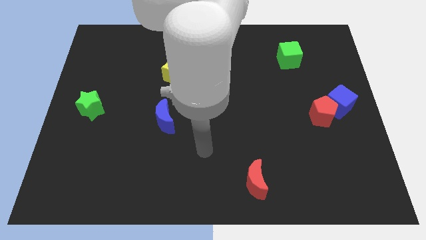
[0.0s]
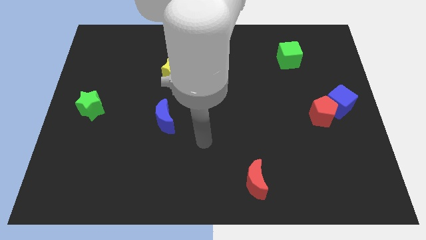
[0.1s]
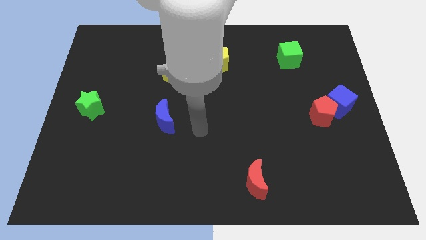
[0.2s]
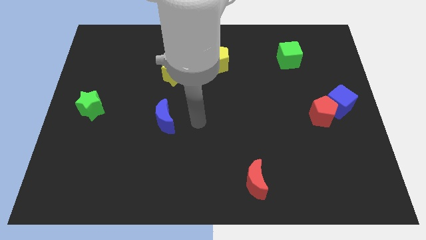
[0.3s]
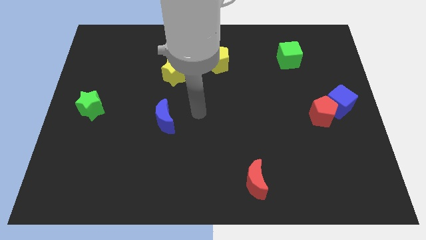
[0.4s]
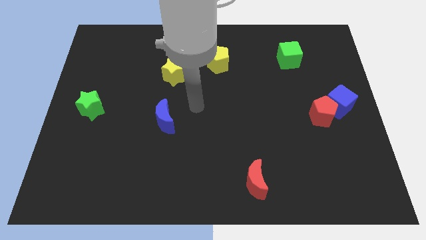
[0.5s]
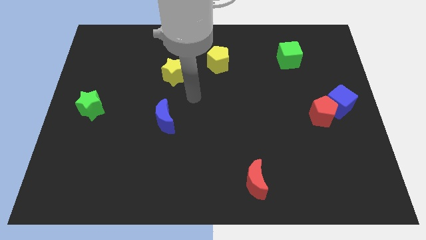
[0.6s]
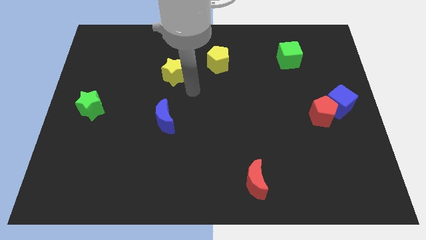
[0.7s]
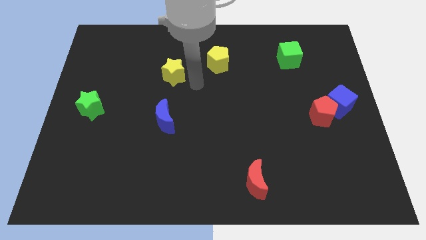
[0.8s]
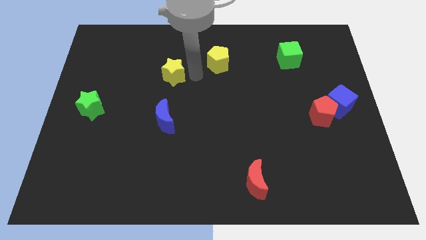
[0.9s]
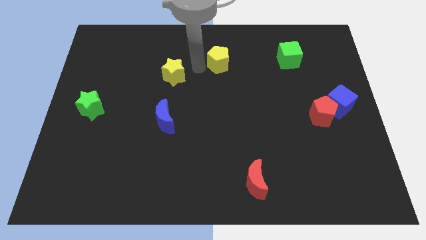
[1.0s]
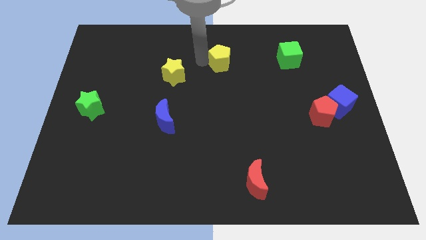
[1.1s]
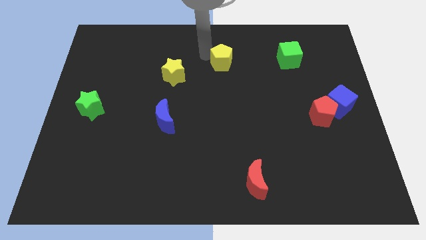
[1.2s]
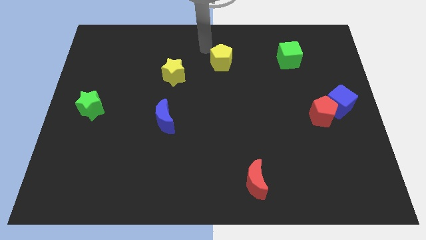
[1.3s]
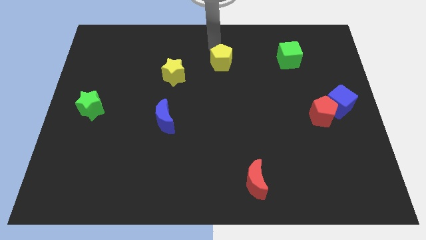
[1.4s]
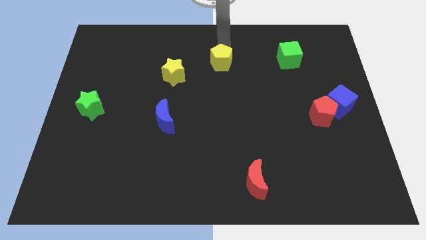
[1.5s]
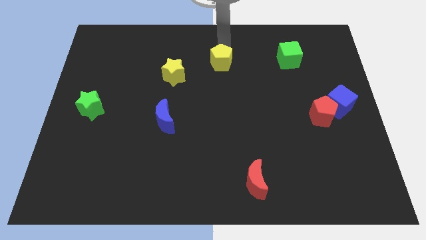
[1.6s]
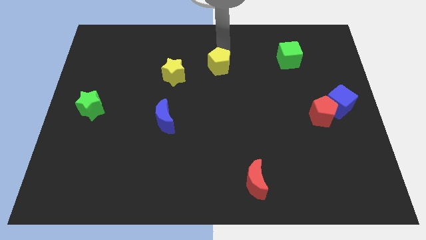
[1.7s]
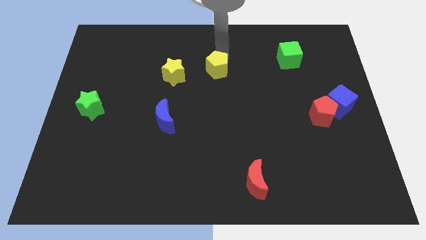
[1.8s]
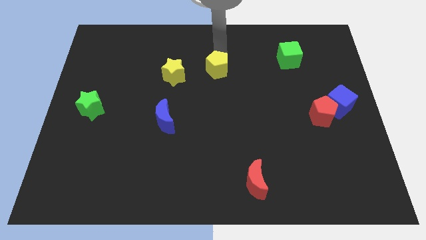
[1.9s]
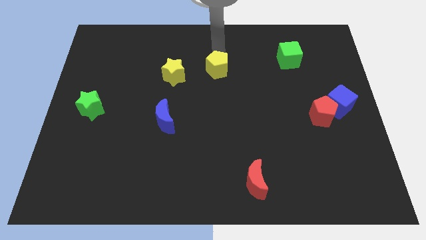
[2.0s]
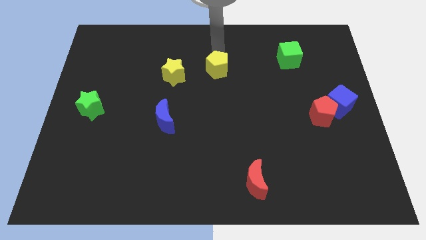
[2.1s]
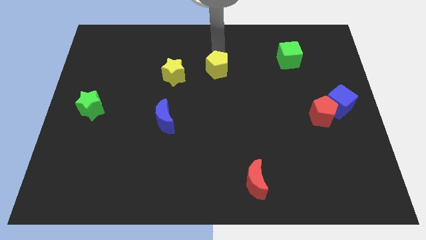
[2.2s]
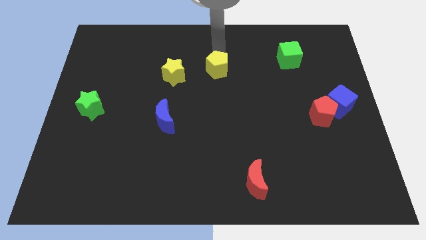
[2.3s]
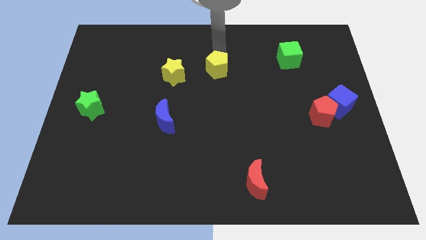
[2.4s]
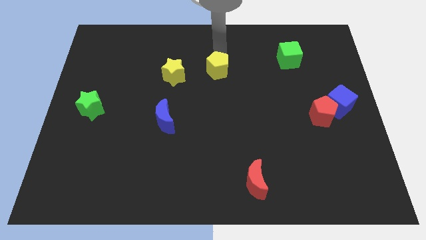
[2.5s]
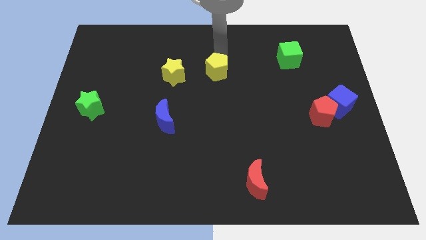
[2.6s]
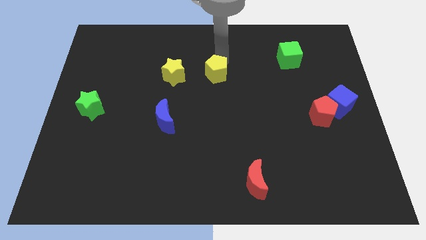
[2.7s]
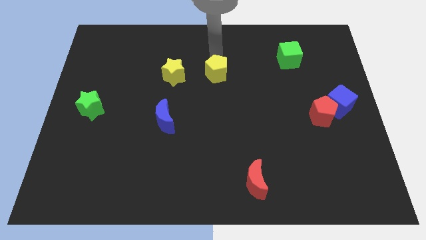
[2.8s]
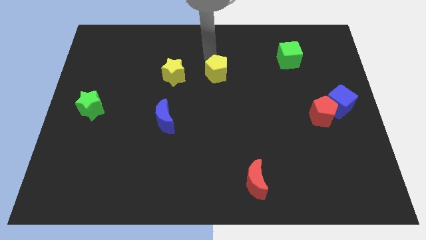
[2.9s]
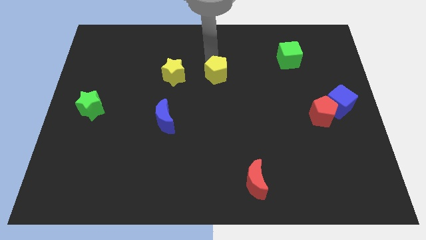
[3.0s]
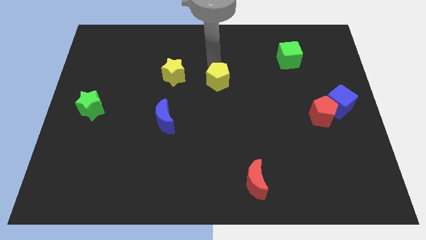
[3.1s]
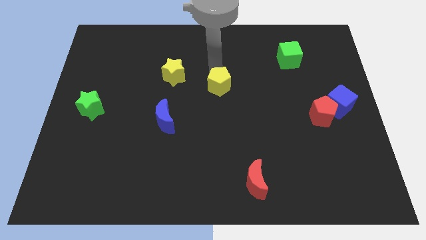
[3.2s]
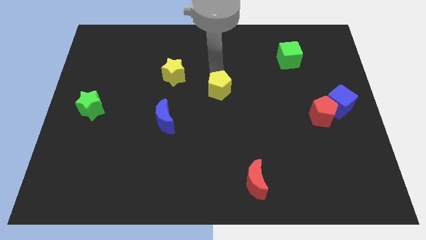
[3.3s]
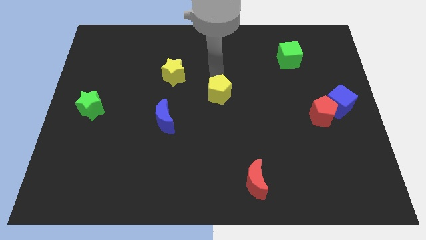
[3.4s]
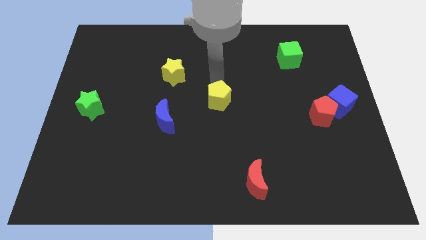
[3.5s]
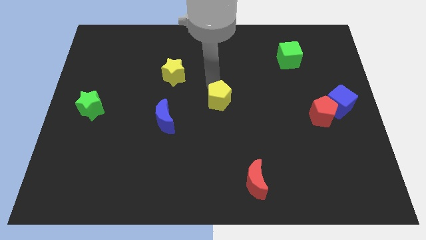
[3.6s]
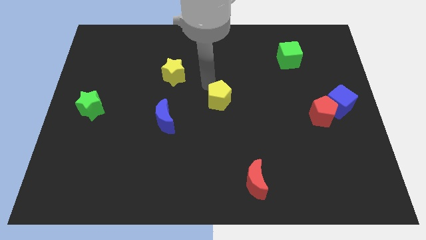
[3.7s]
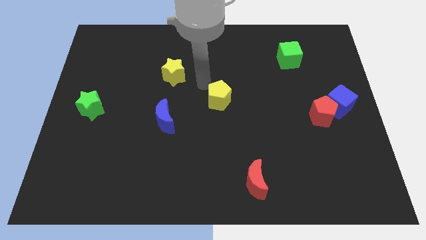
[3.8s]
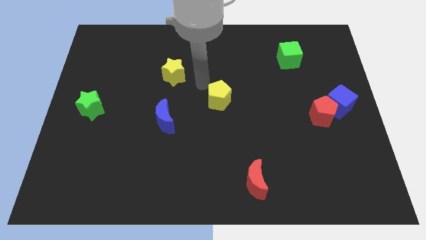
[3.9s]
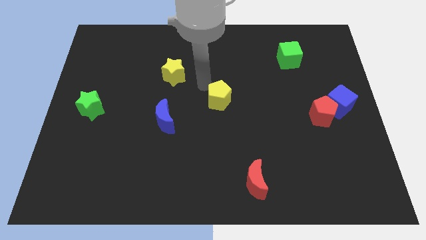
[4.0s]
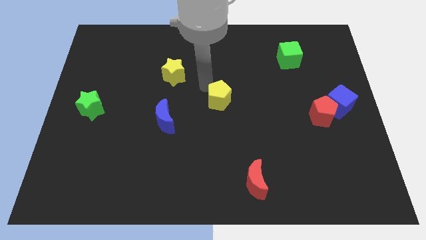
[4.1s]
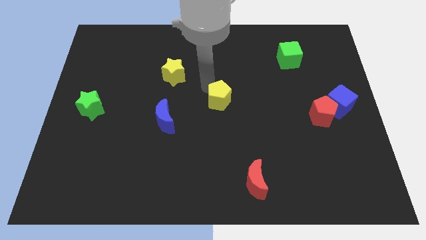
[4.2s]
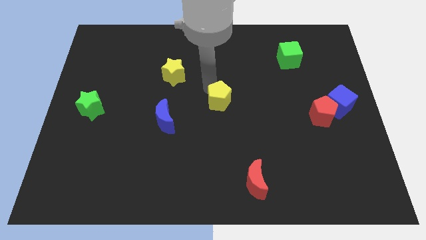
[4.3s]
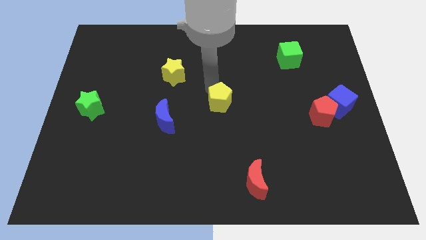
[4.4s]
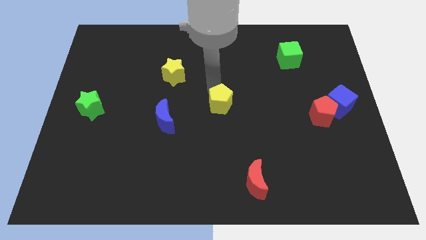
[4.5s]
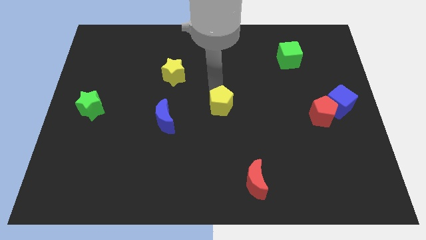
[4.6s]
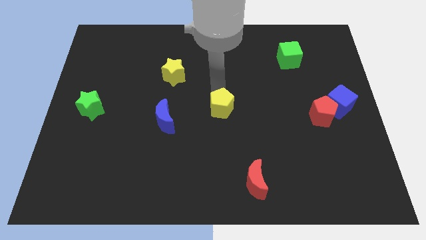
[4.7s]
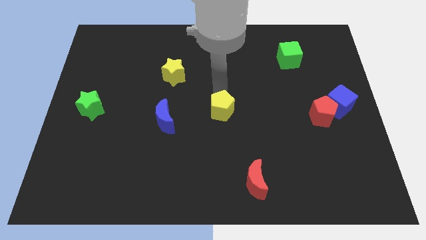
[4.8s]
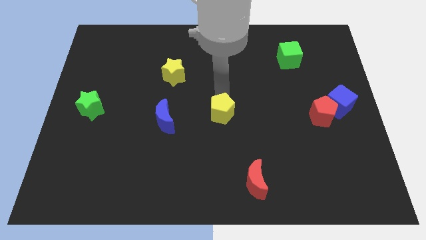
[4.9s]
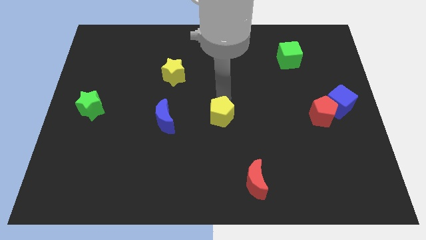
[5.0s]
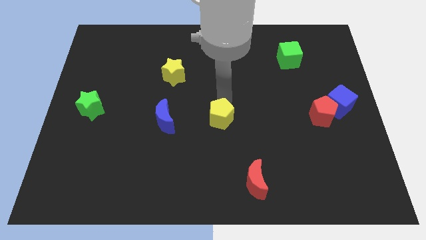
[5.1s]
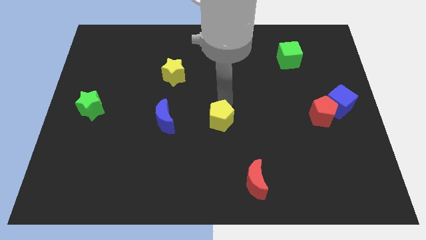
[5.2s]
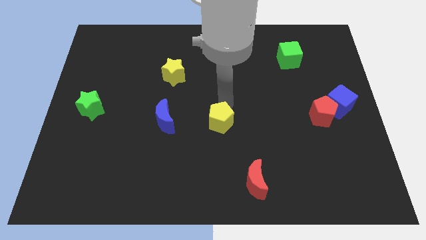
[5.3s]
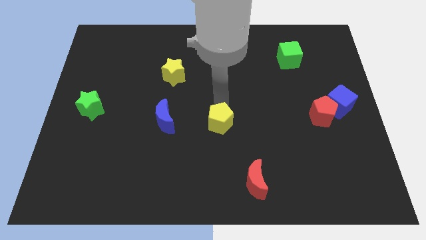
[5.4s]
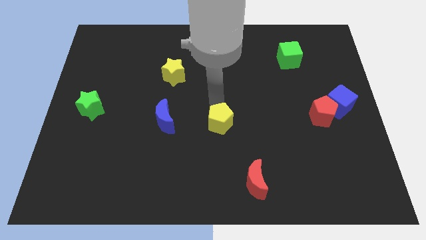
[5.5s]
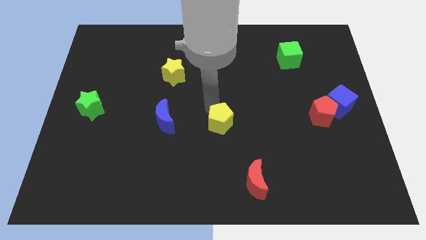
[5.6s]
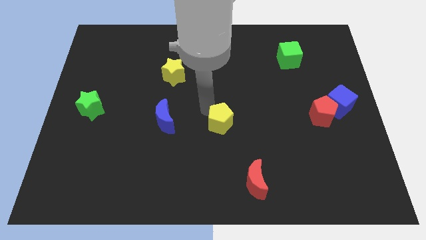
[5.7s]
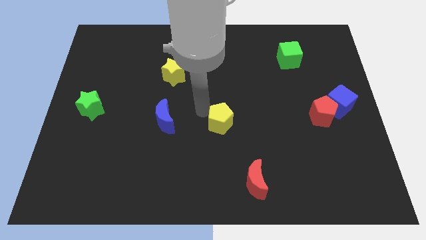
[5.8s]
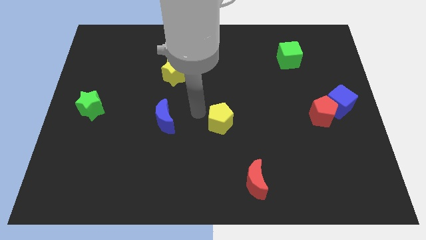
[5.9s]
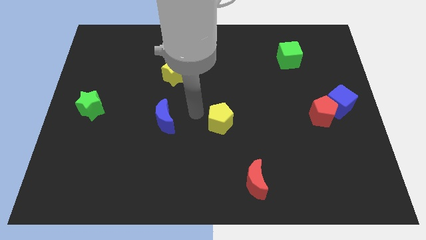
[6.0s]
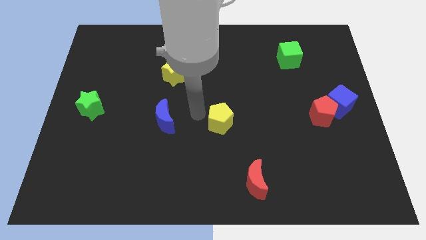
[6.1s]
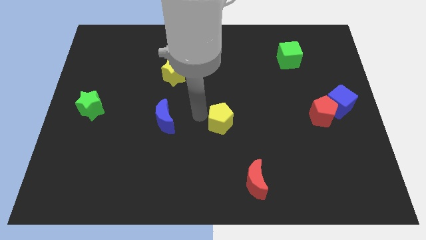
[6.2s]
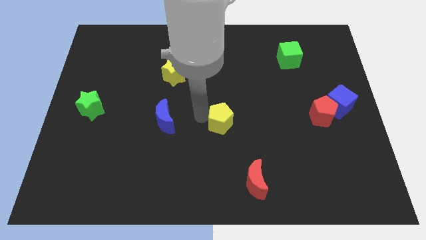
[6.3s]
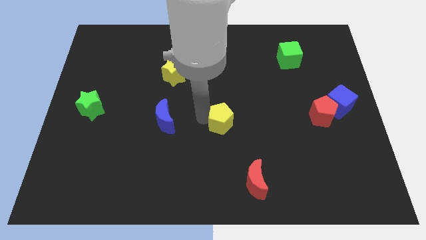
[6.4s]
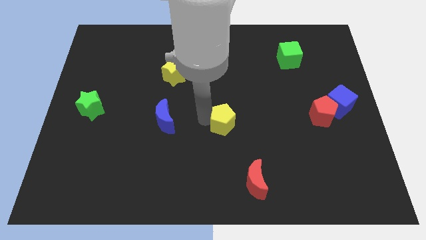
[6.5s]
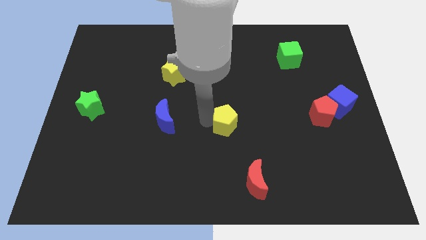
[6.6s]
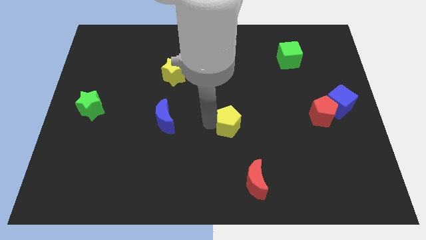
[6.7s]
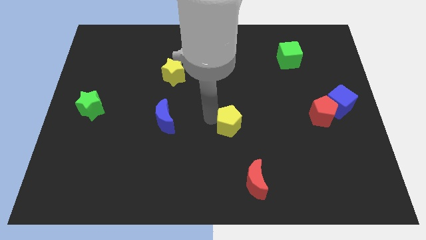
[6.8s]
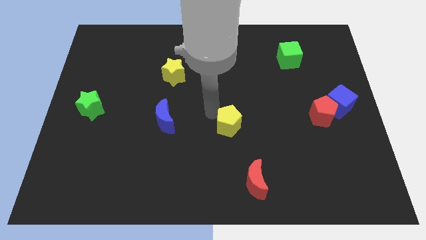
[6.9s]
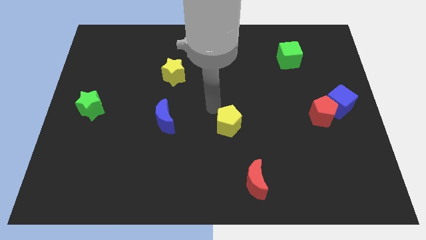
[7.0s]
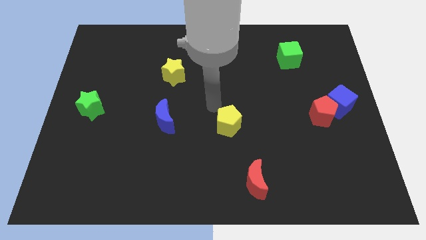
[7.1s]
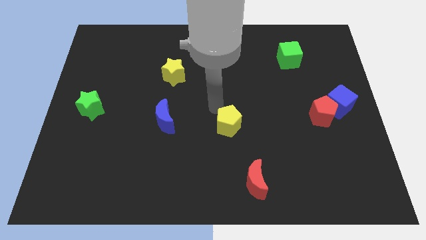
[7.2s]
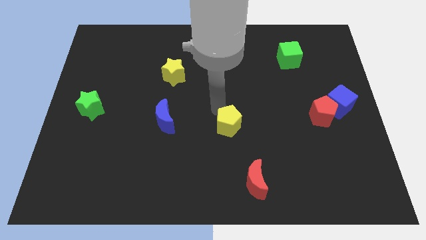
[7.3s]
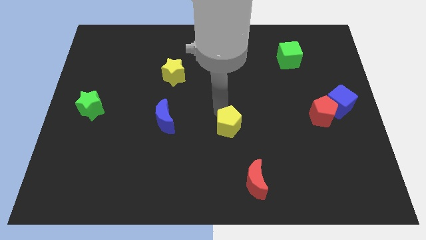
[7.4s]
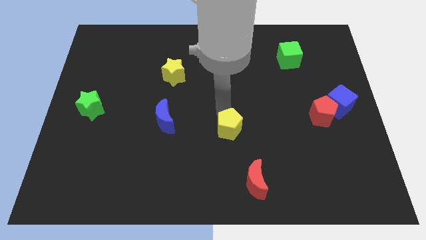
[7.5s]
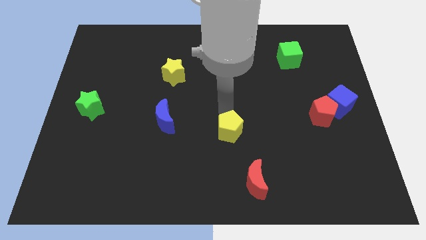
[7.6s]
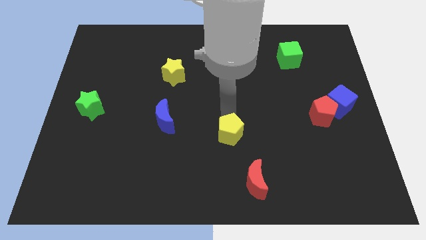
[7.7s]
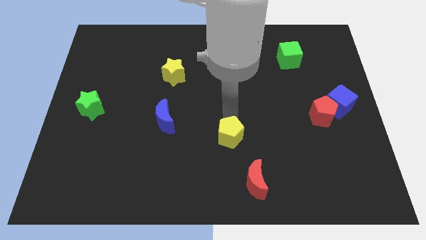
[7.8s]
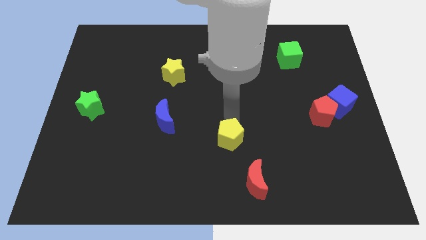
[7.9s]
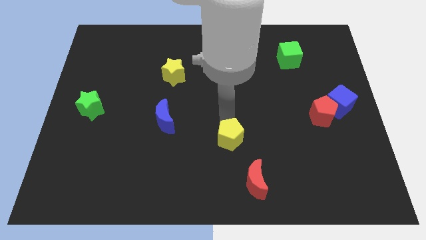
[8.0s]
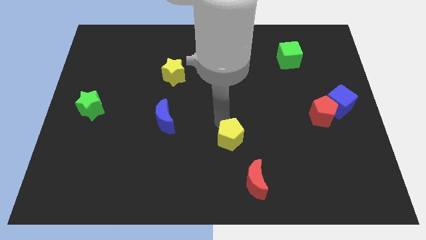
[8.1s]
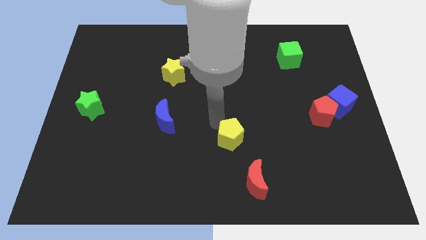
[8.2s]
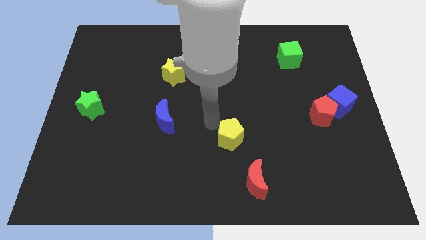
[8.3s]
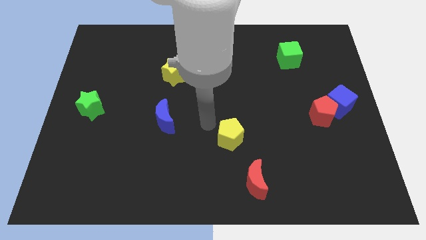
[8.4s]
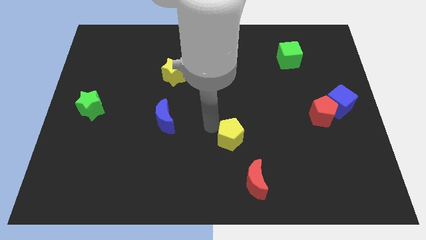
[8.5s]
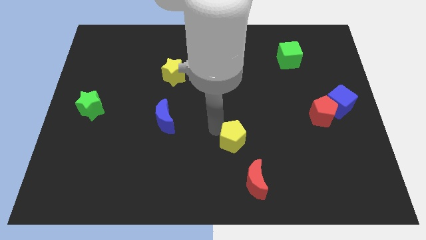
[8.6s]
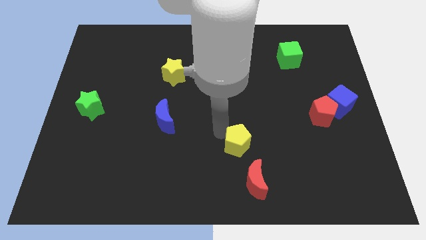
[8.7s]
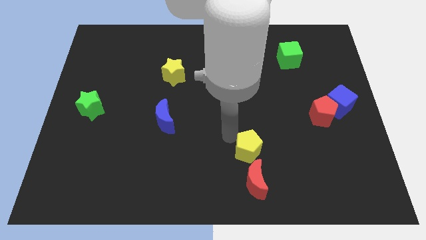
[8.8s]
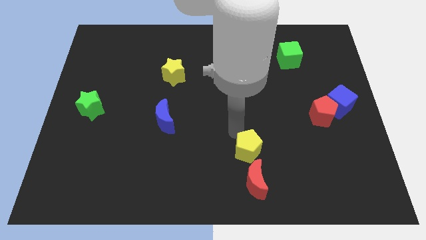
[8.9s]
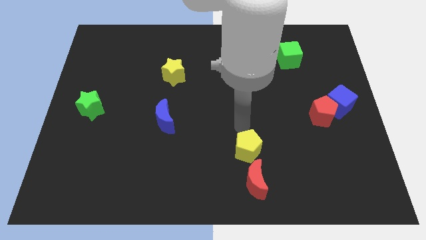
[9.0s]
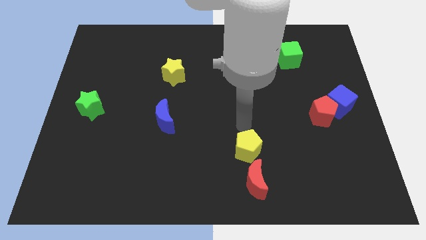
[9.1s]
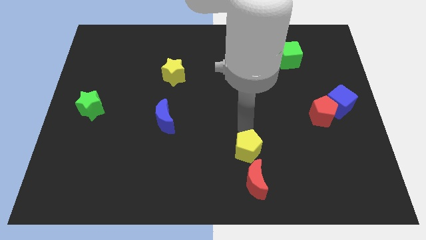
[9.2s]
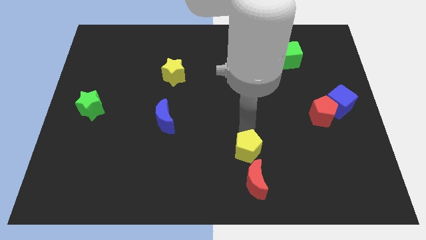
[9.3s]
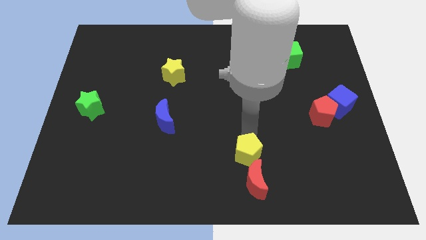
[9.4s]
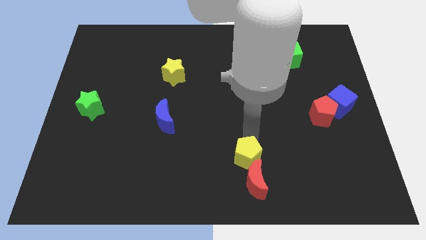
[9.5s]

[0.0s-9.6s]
slide the yellow pentagon towards the red moon
